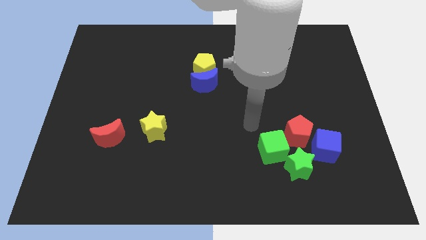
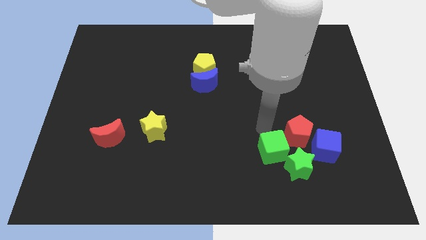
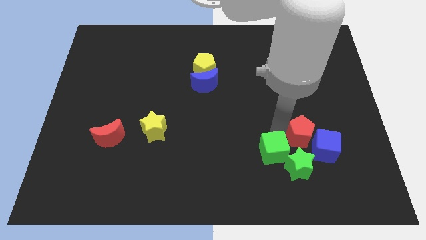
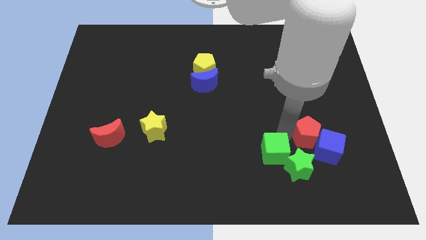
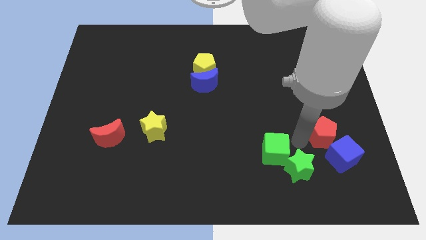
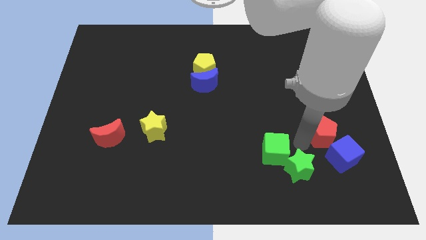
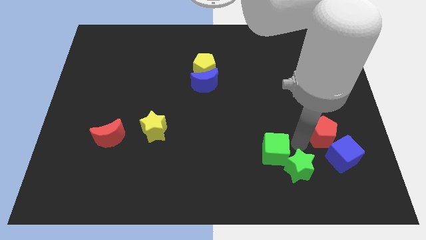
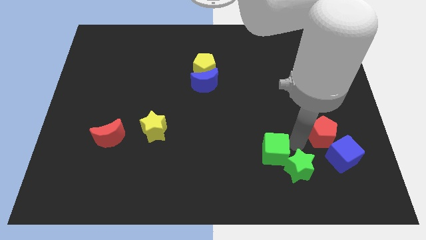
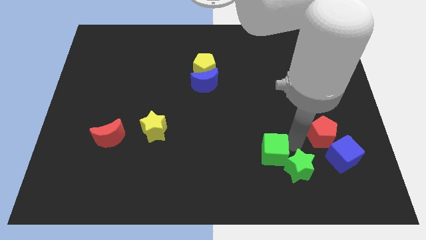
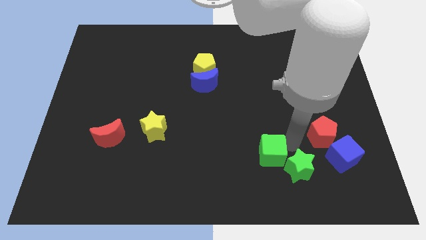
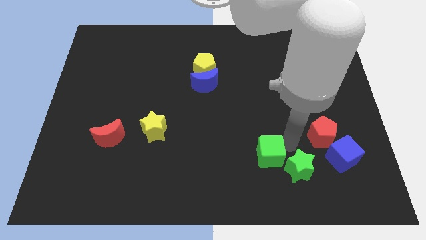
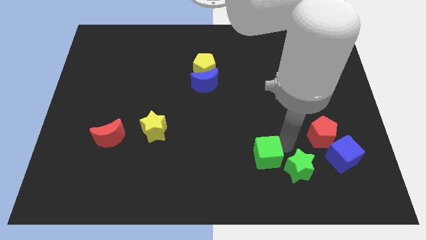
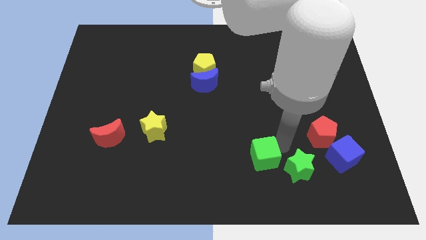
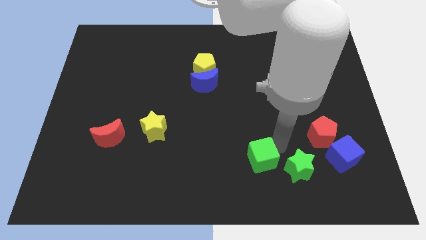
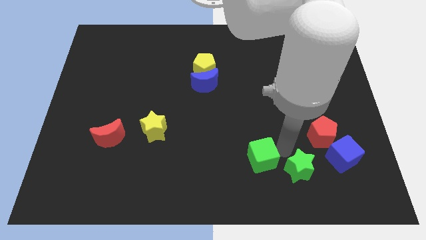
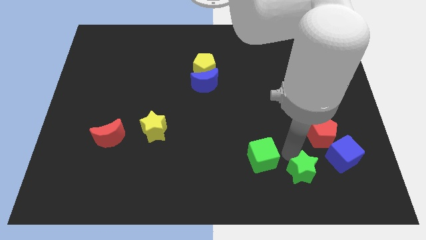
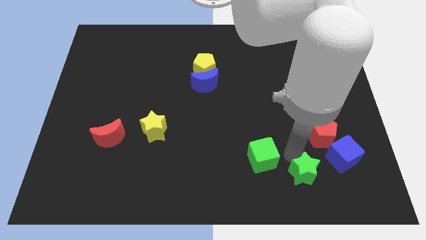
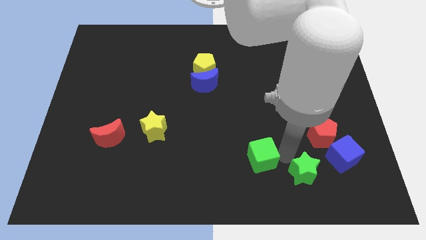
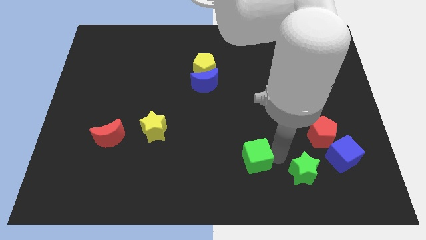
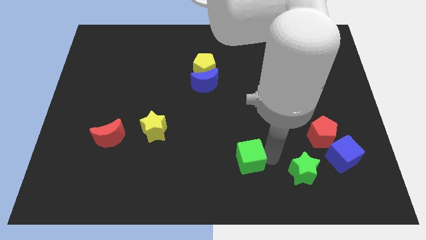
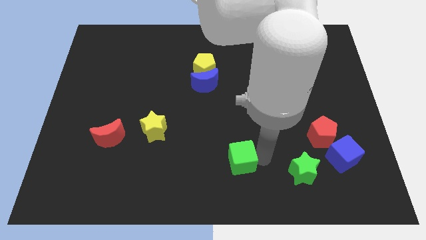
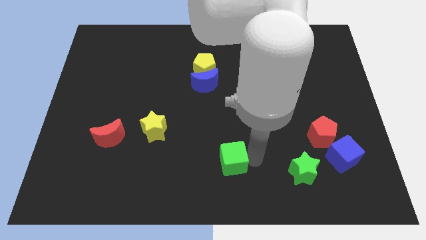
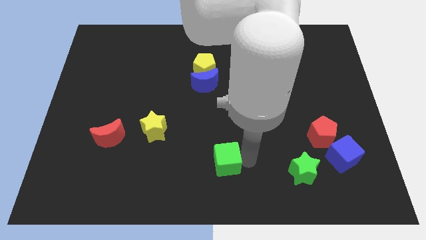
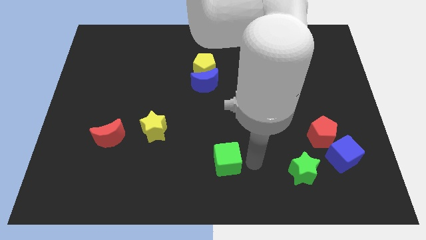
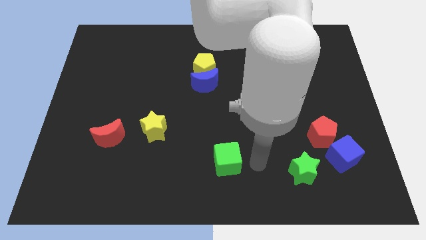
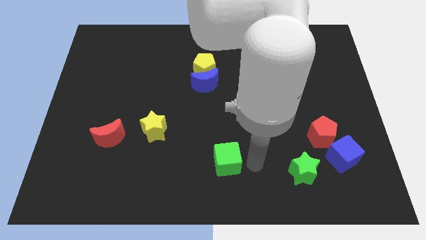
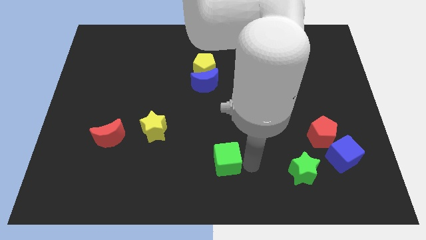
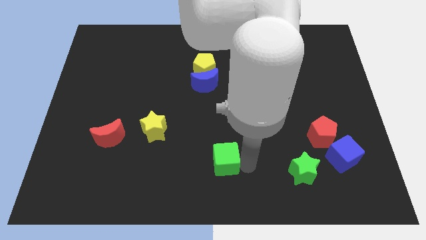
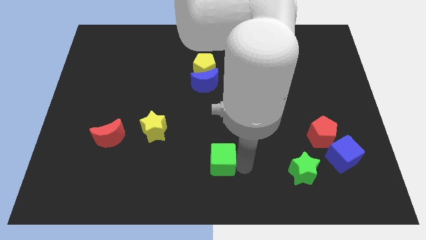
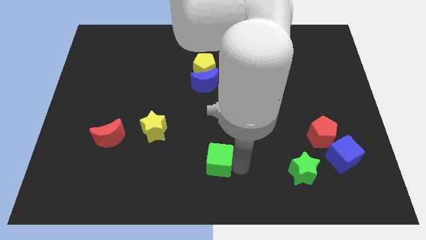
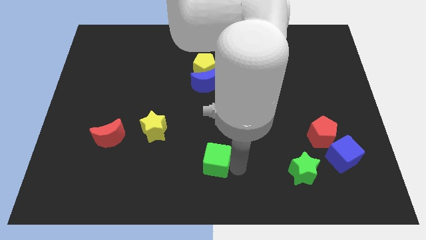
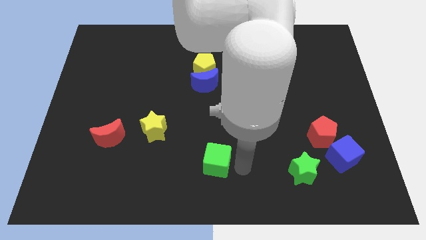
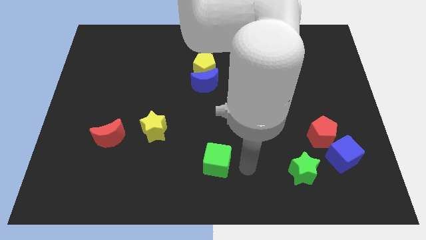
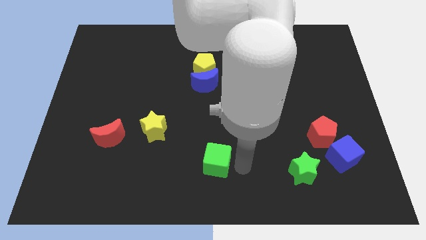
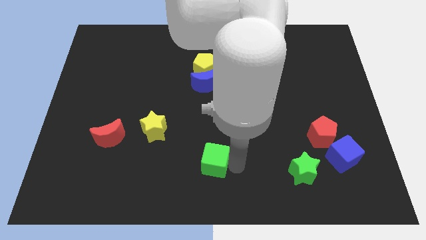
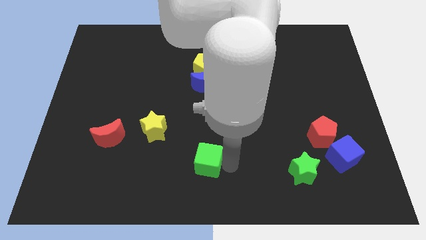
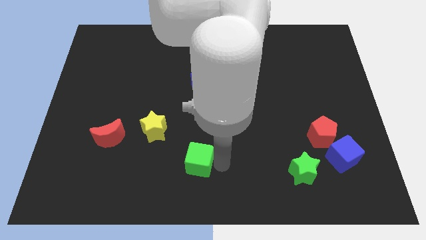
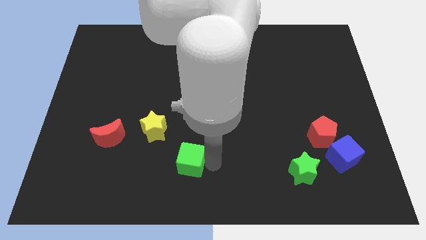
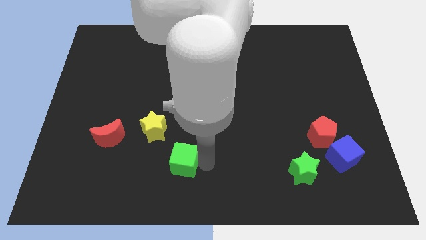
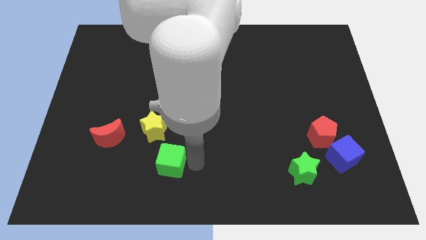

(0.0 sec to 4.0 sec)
move the green cube to the left

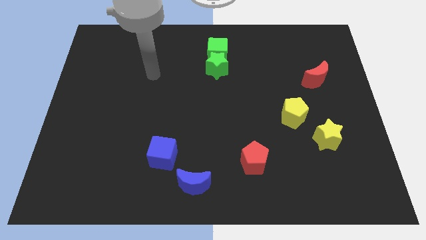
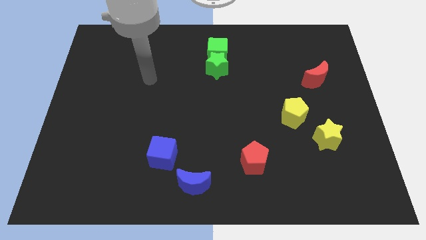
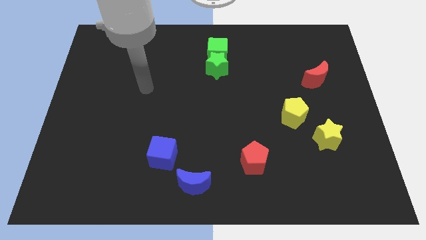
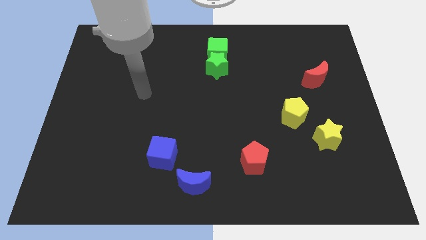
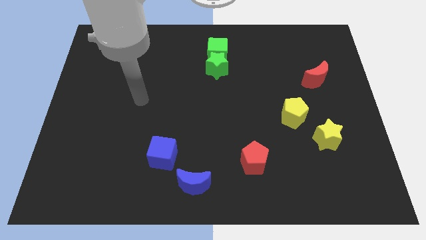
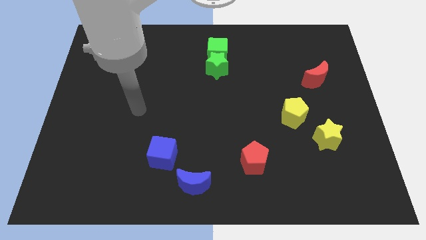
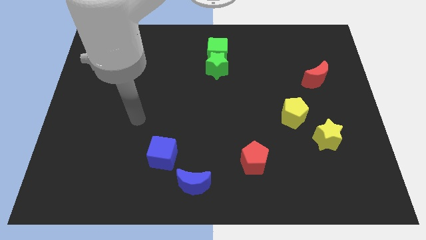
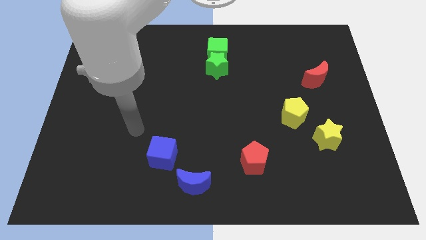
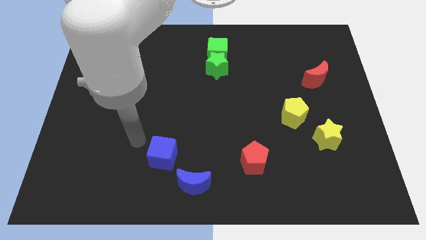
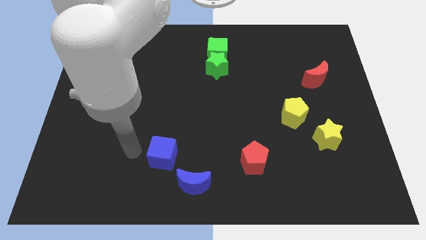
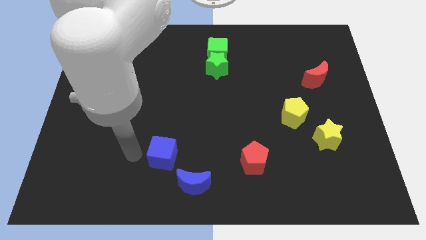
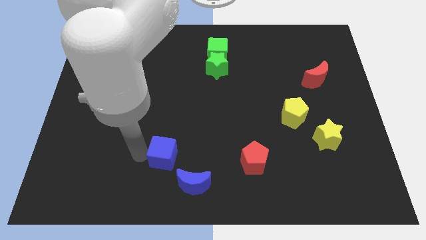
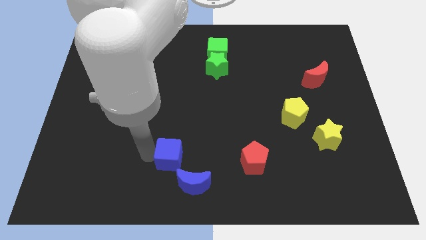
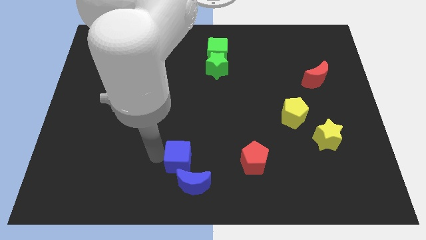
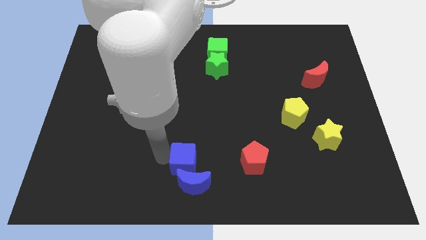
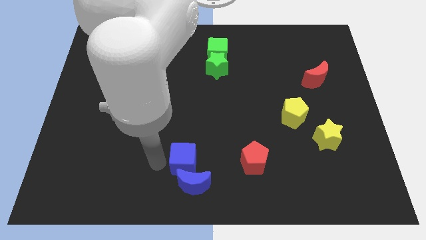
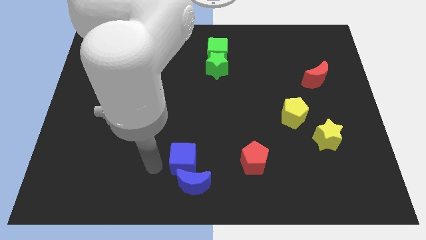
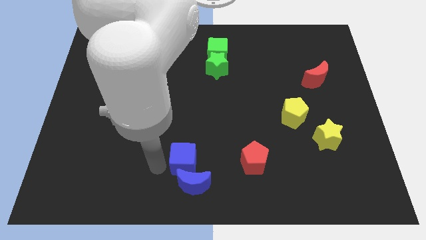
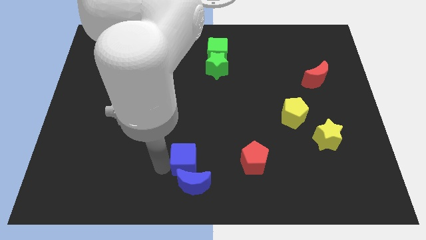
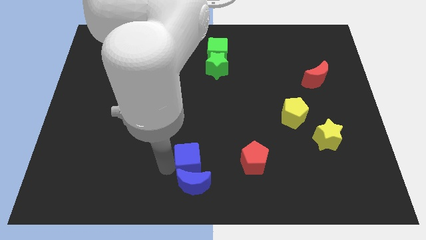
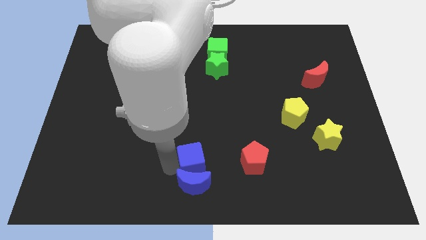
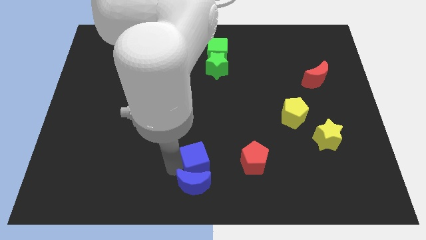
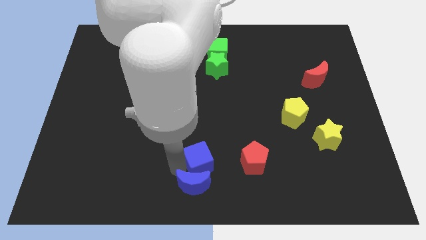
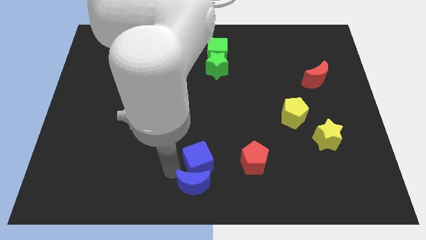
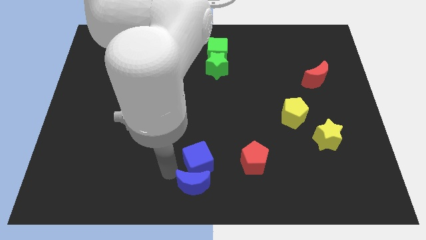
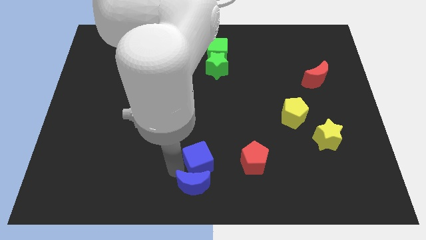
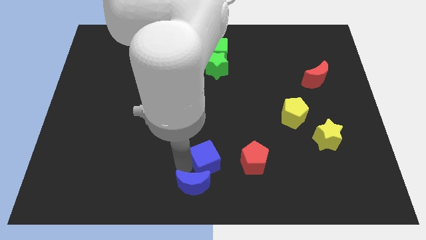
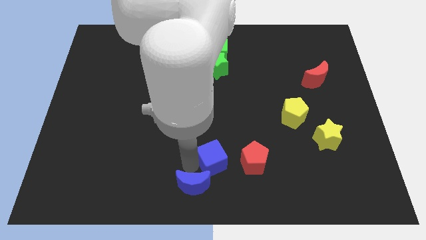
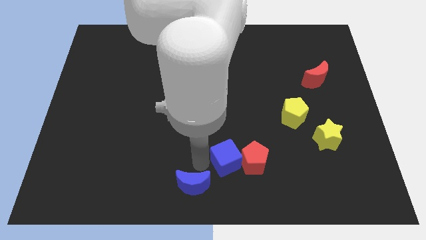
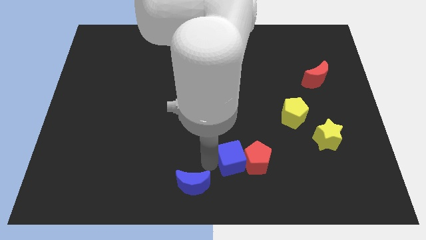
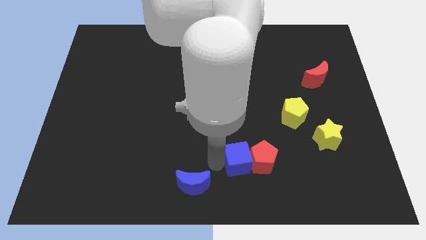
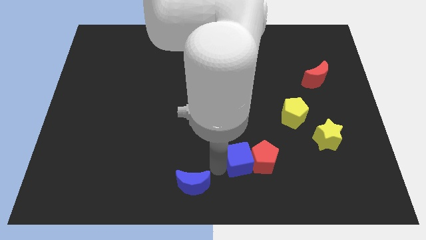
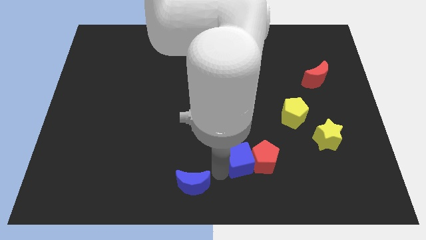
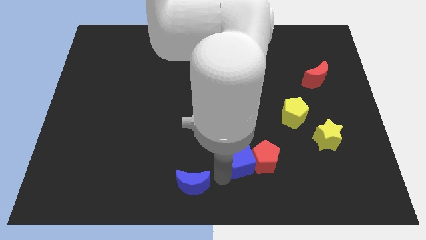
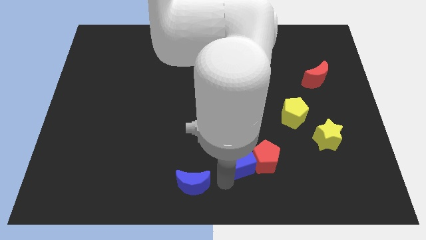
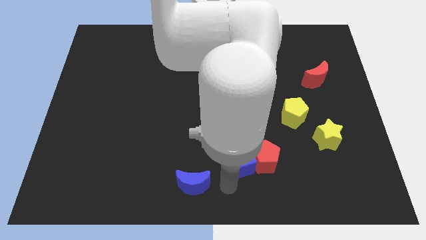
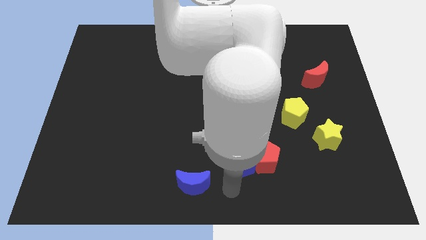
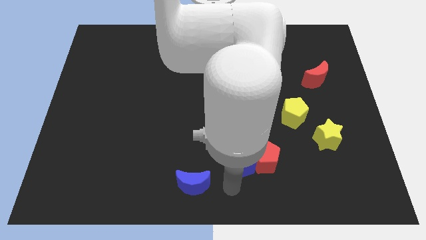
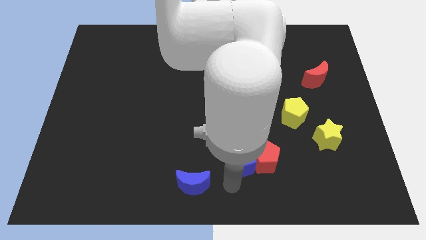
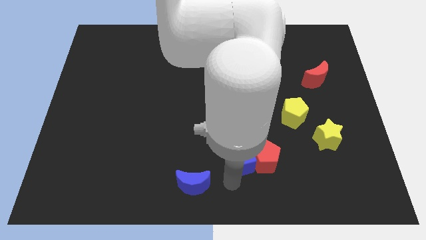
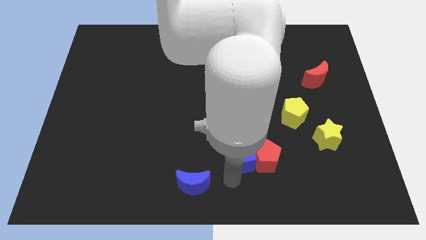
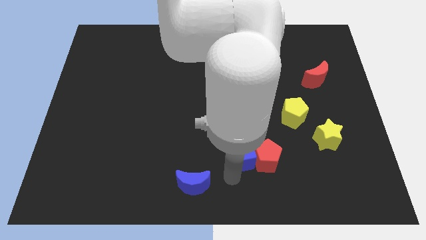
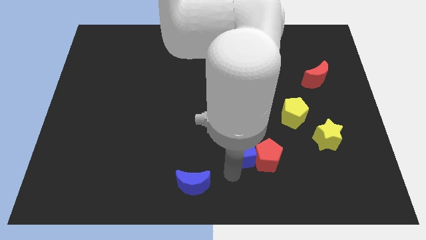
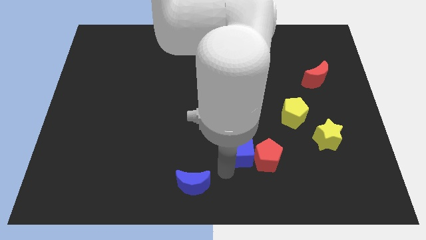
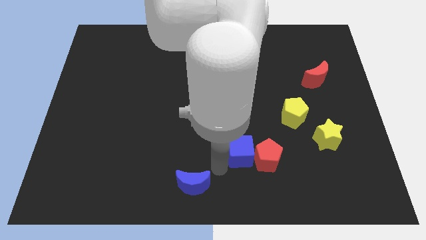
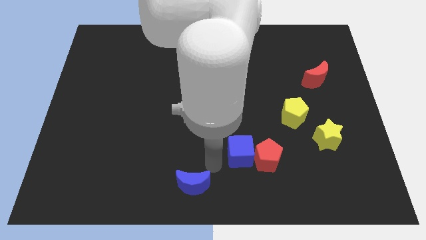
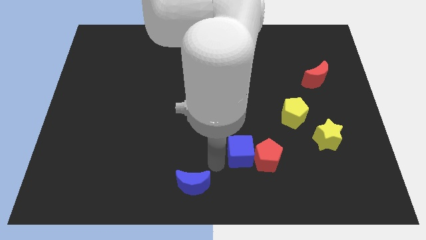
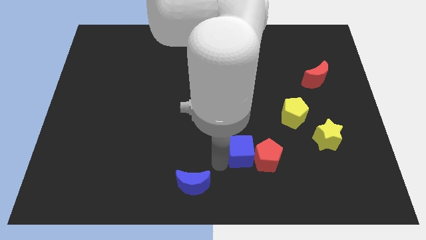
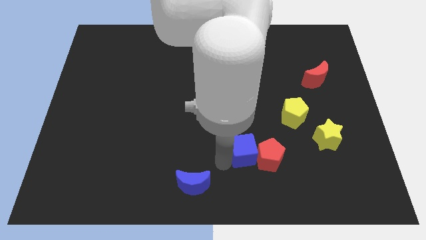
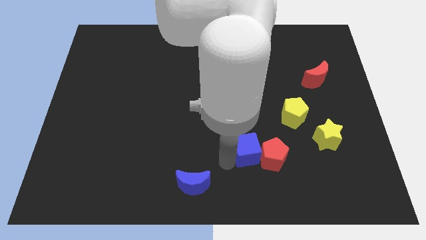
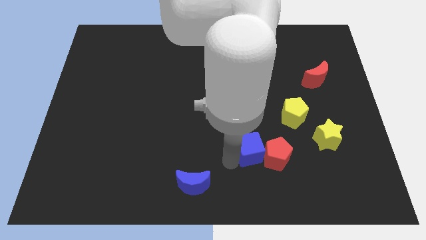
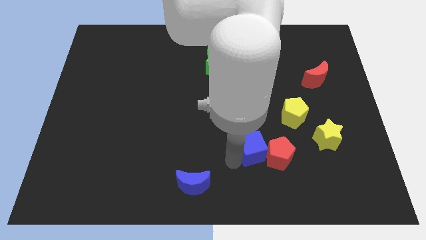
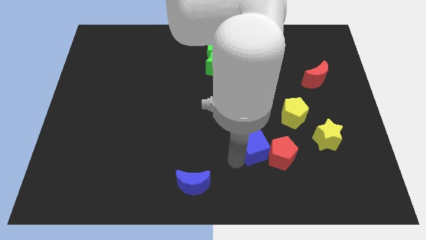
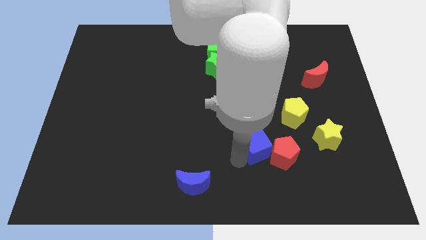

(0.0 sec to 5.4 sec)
push the blue cube right
